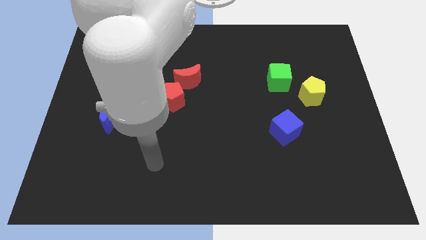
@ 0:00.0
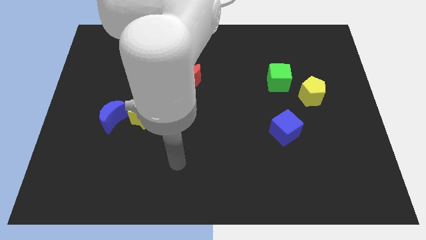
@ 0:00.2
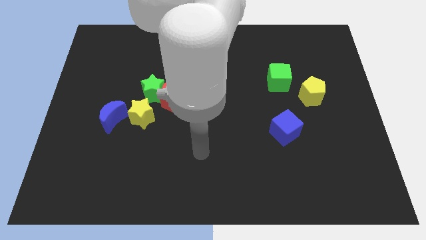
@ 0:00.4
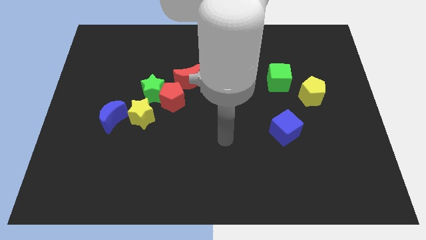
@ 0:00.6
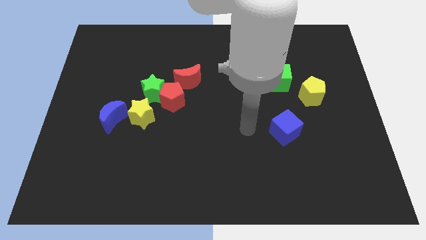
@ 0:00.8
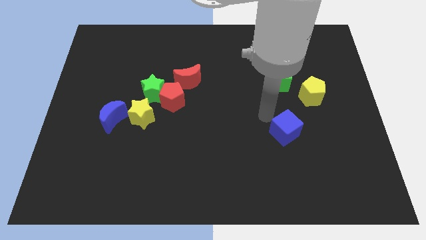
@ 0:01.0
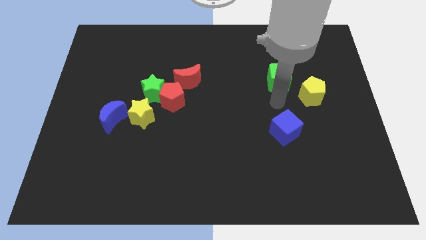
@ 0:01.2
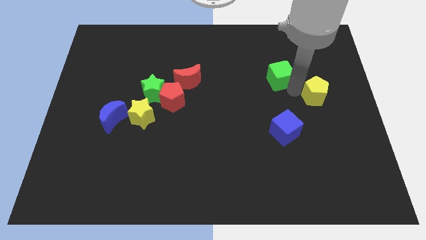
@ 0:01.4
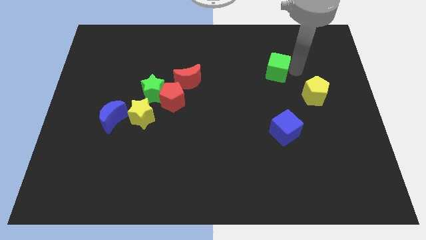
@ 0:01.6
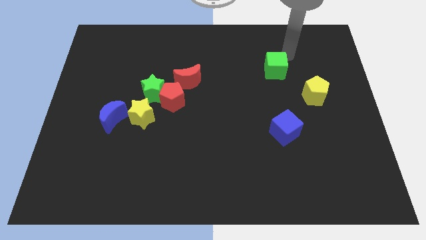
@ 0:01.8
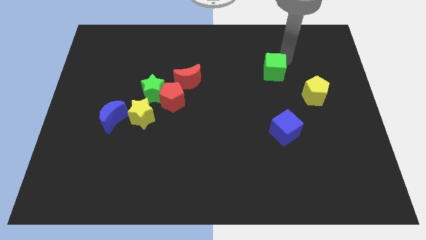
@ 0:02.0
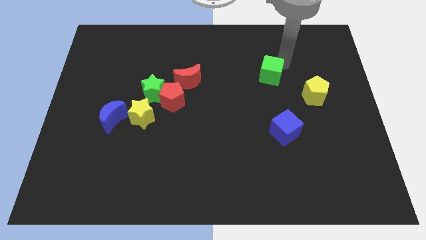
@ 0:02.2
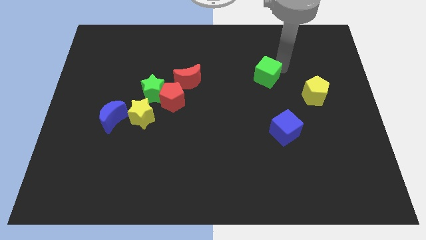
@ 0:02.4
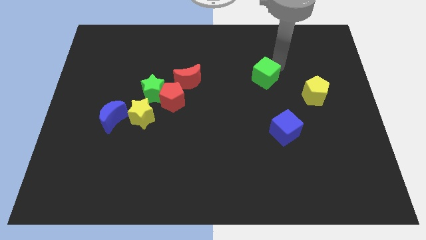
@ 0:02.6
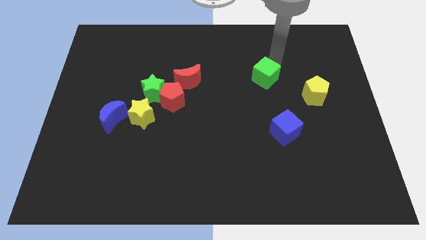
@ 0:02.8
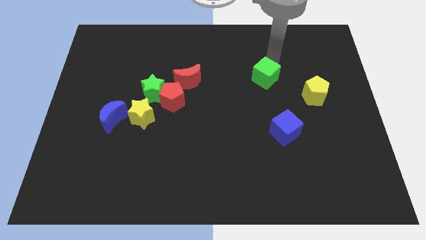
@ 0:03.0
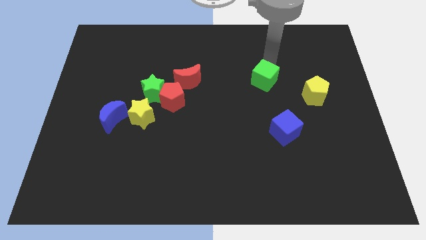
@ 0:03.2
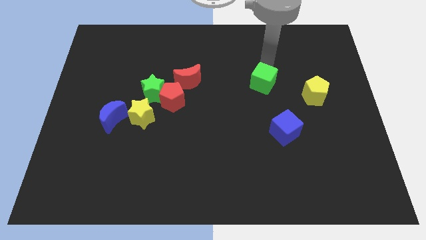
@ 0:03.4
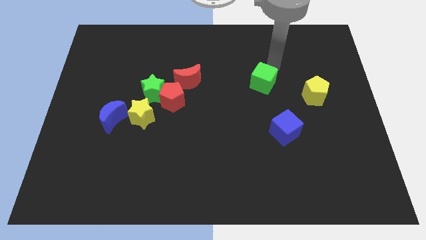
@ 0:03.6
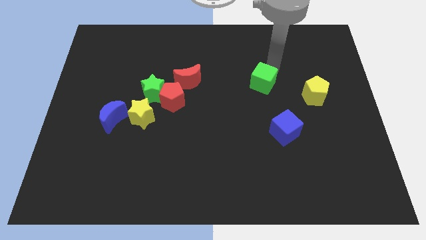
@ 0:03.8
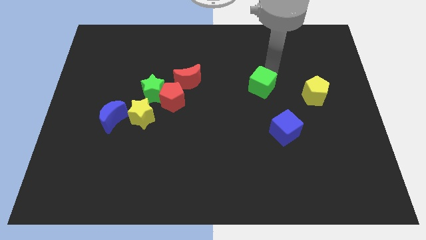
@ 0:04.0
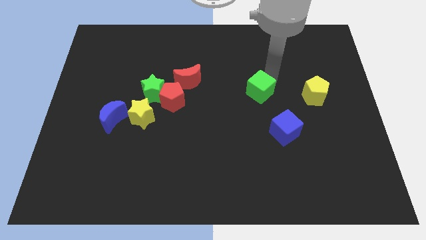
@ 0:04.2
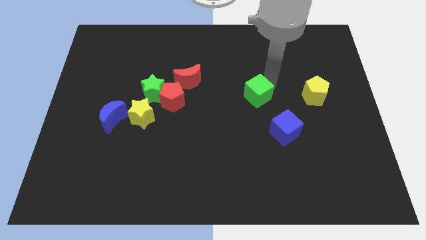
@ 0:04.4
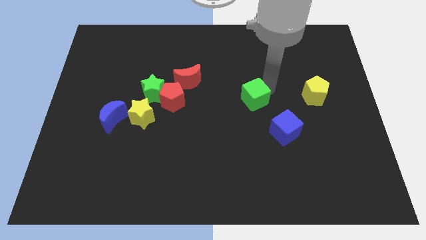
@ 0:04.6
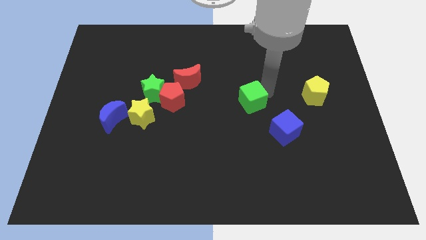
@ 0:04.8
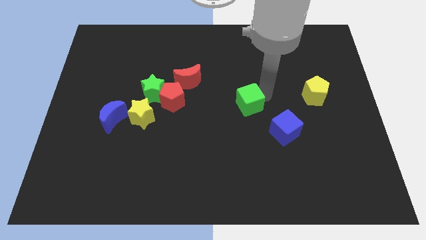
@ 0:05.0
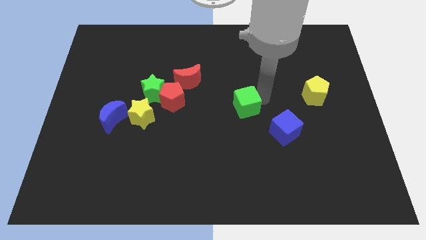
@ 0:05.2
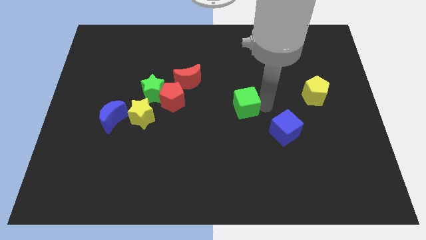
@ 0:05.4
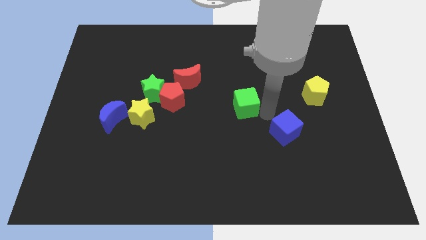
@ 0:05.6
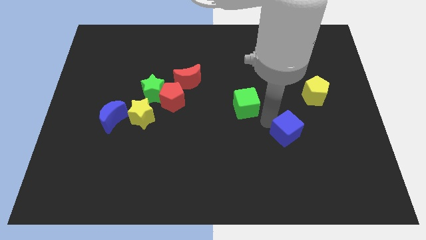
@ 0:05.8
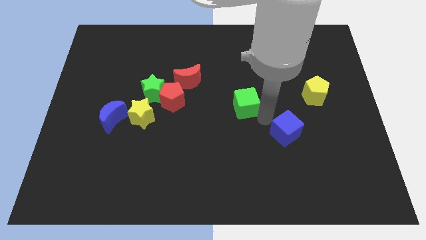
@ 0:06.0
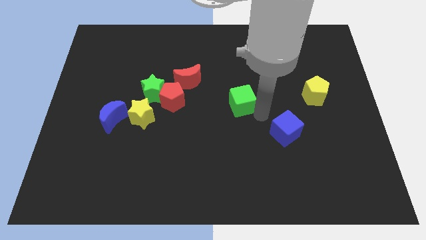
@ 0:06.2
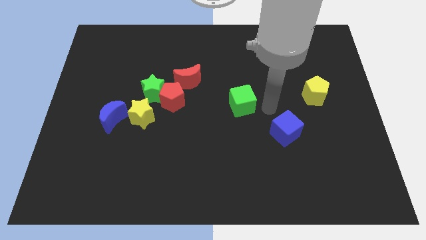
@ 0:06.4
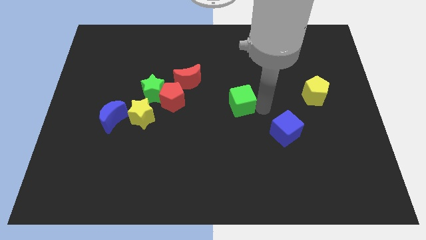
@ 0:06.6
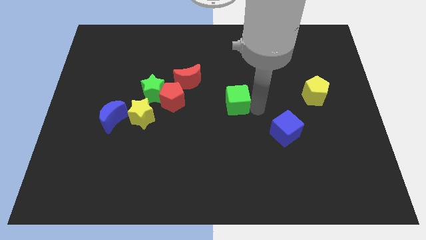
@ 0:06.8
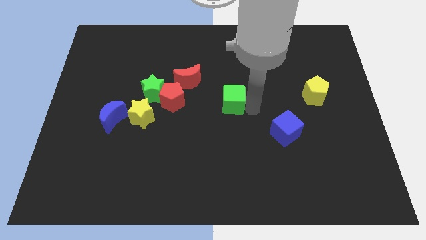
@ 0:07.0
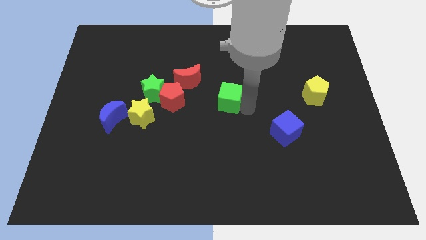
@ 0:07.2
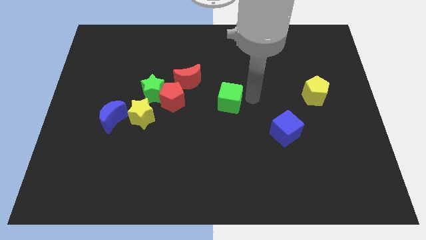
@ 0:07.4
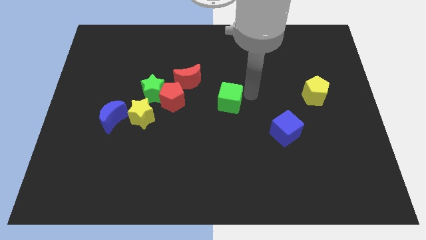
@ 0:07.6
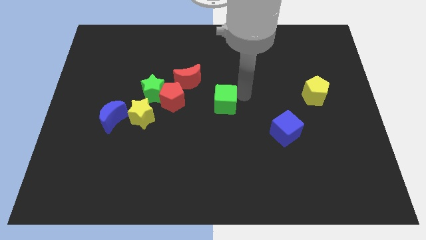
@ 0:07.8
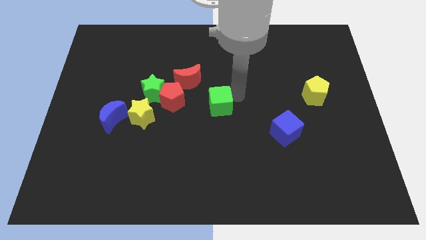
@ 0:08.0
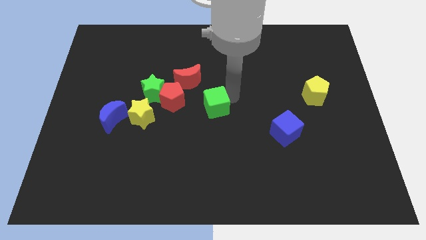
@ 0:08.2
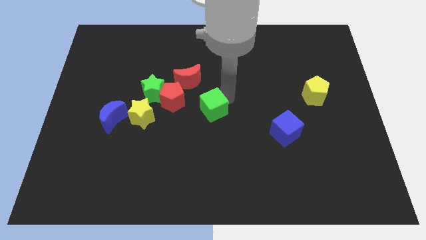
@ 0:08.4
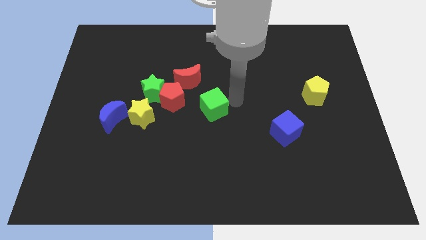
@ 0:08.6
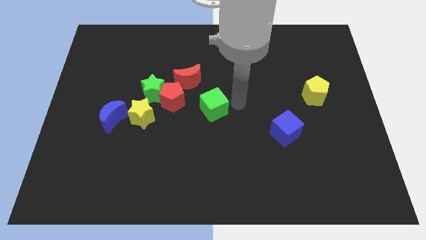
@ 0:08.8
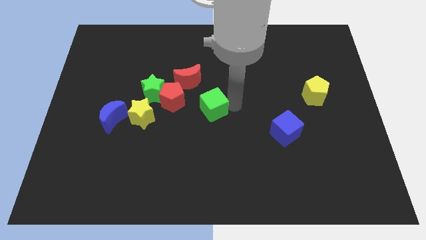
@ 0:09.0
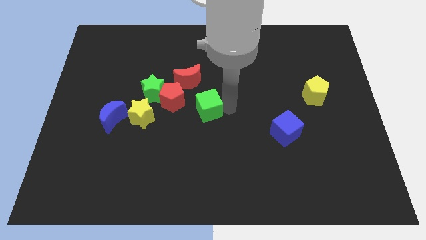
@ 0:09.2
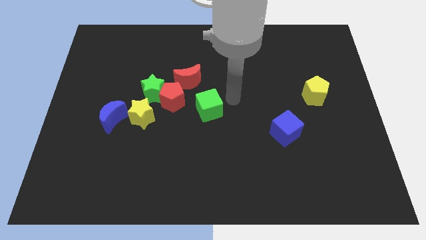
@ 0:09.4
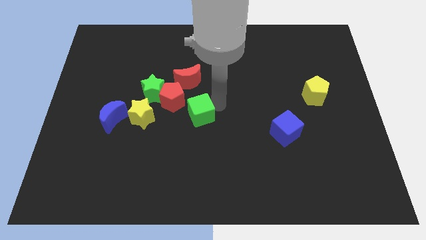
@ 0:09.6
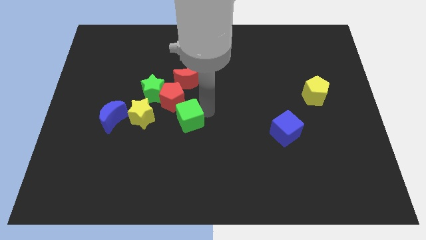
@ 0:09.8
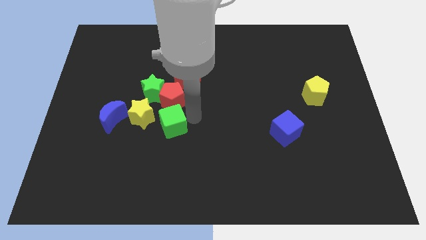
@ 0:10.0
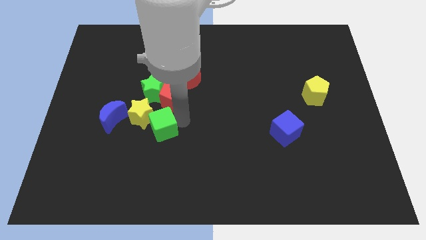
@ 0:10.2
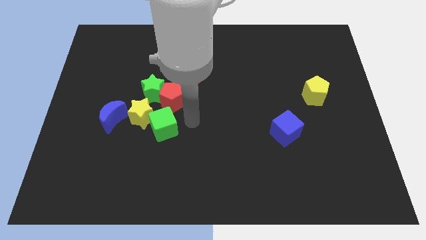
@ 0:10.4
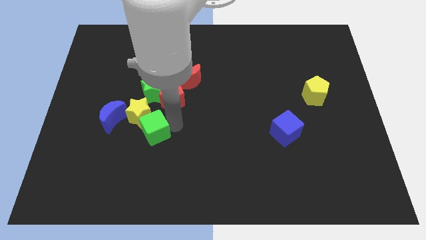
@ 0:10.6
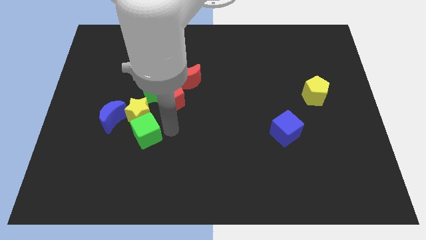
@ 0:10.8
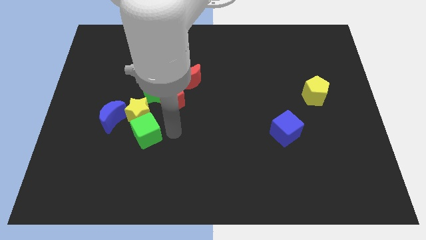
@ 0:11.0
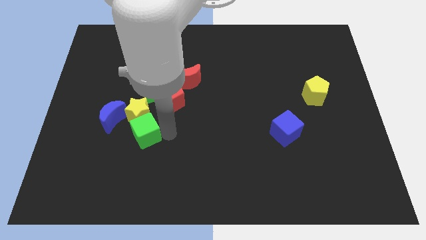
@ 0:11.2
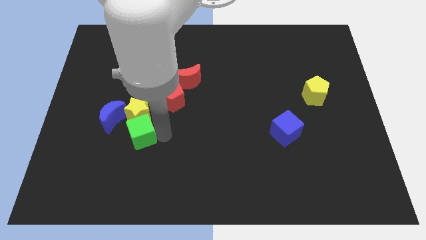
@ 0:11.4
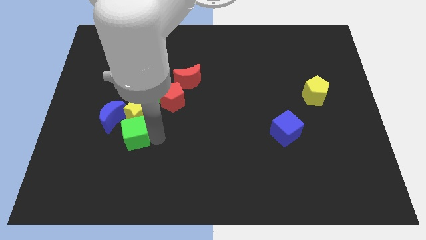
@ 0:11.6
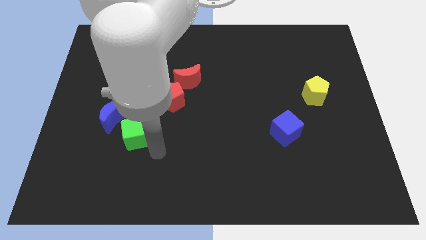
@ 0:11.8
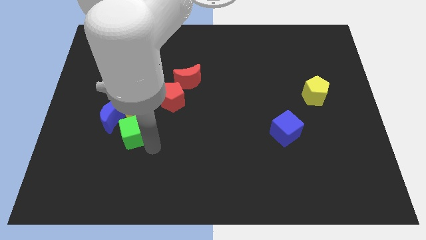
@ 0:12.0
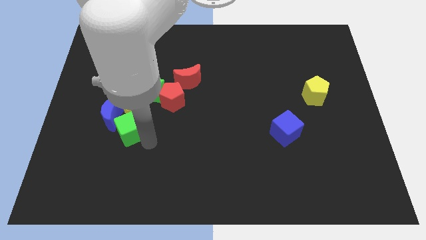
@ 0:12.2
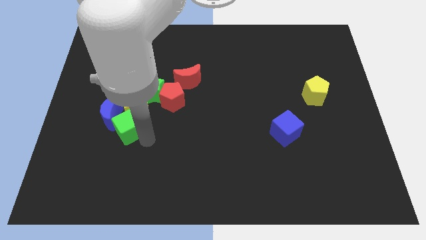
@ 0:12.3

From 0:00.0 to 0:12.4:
slide the green cube to the blue moon

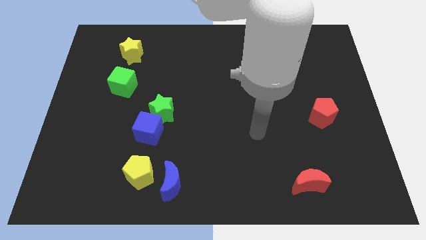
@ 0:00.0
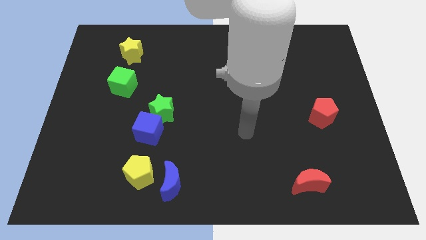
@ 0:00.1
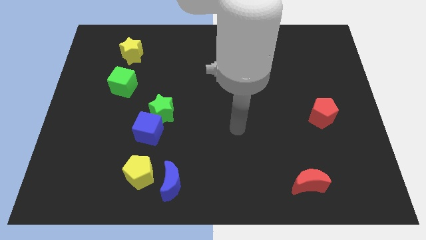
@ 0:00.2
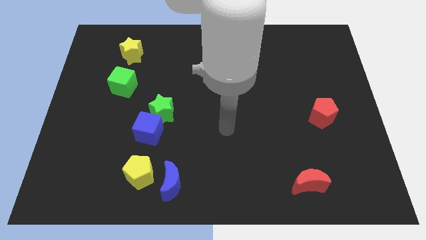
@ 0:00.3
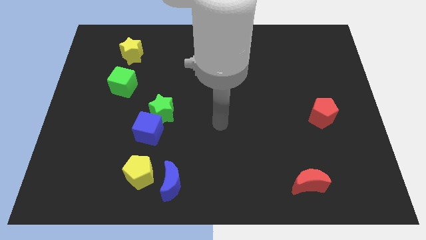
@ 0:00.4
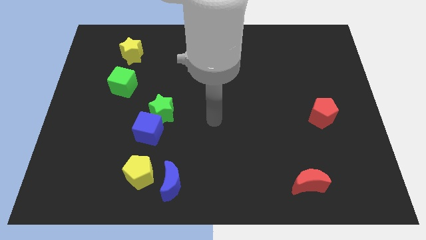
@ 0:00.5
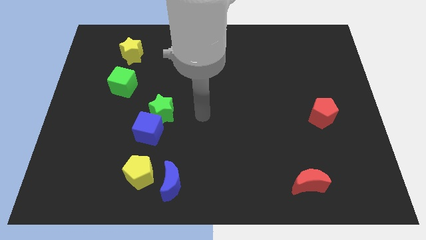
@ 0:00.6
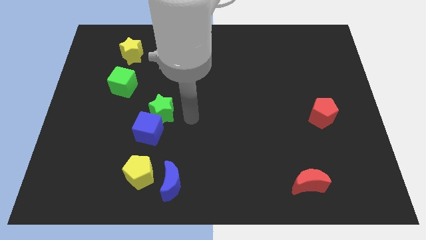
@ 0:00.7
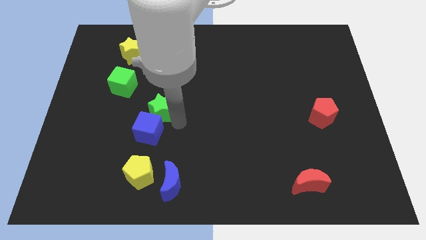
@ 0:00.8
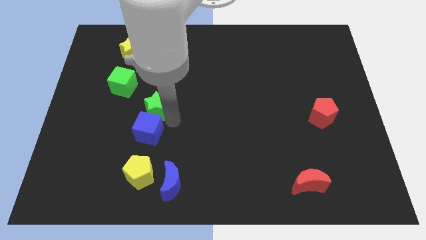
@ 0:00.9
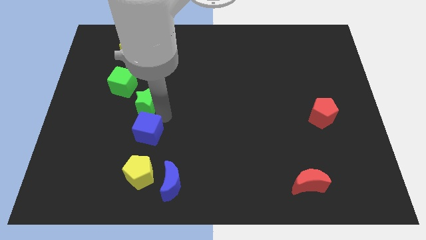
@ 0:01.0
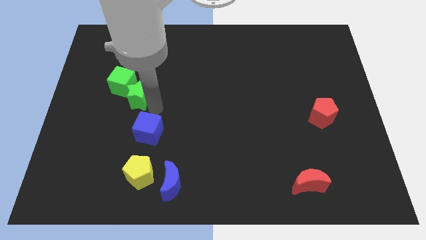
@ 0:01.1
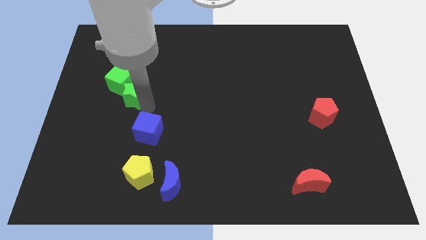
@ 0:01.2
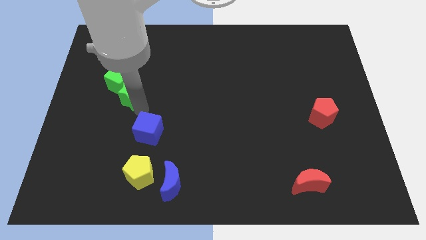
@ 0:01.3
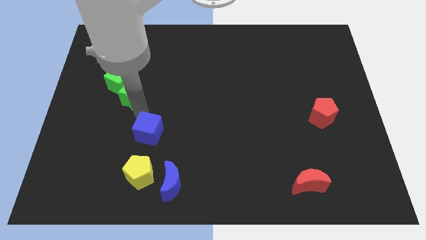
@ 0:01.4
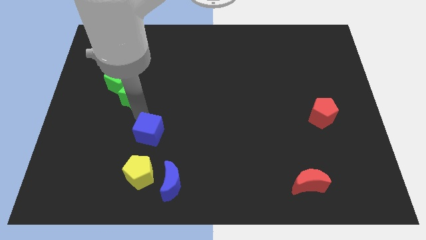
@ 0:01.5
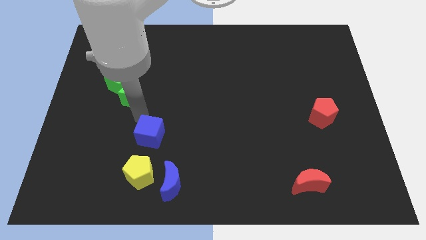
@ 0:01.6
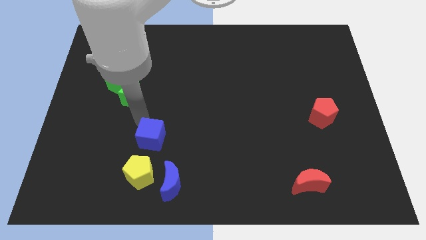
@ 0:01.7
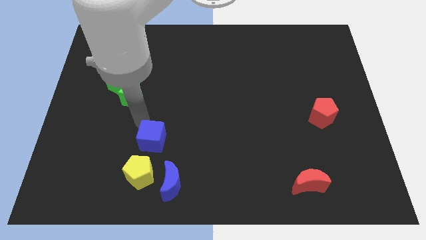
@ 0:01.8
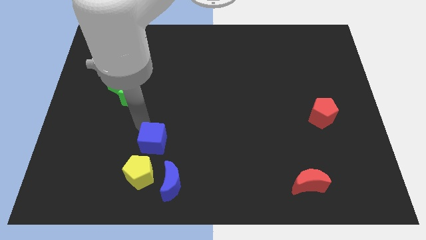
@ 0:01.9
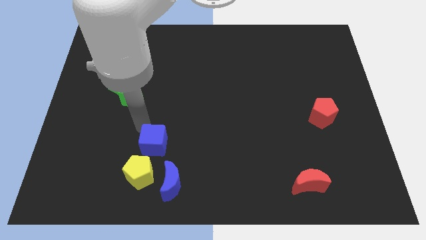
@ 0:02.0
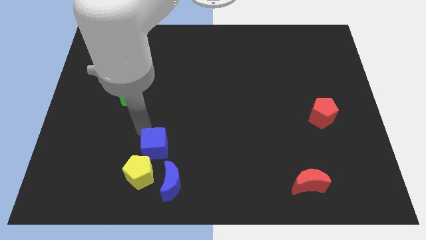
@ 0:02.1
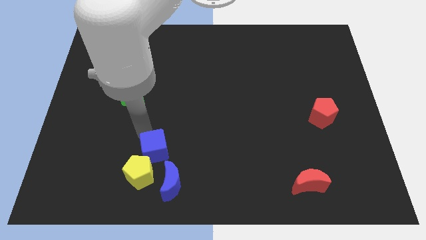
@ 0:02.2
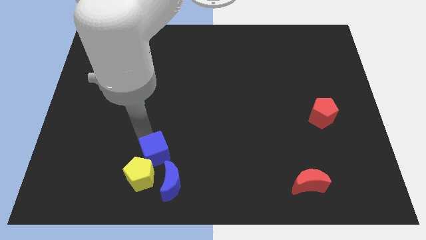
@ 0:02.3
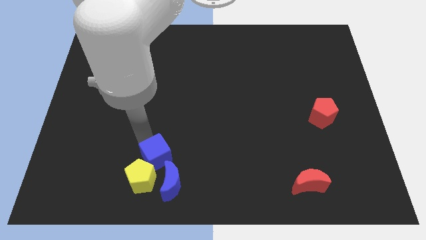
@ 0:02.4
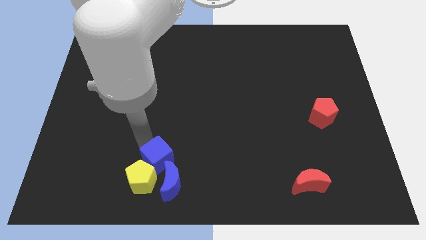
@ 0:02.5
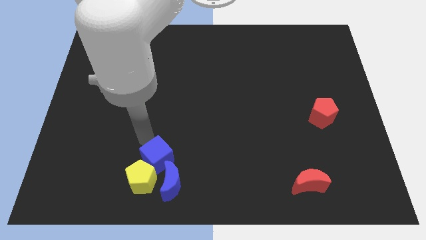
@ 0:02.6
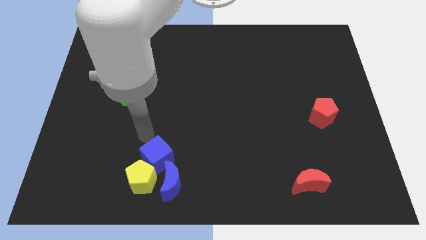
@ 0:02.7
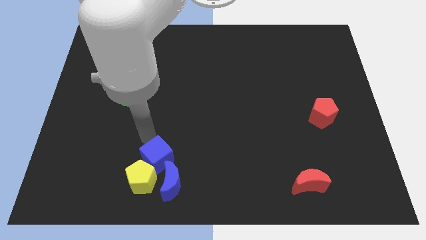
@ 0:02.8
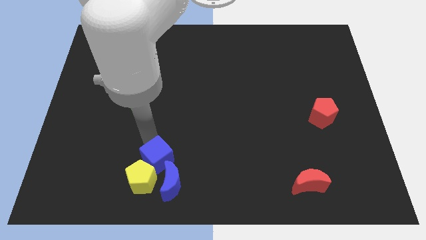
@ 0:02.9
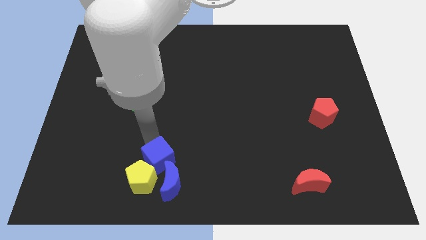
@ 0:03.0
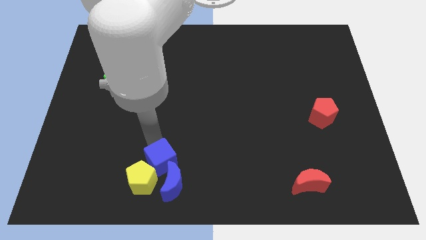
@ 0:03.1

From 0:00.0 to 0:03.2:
slide the blue cube close to the blue moon
